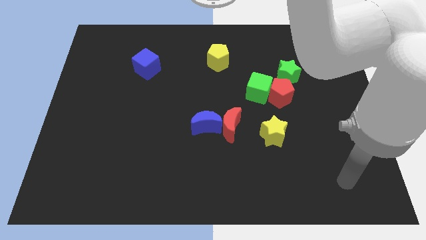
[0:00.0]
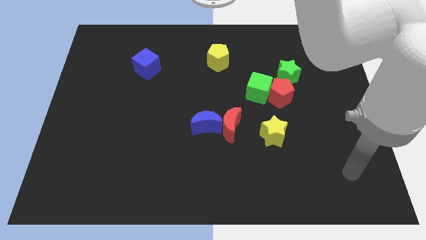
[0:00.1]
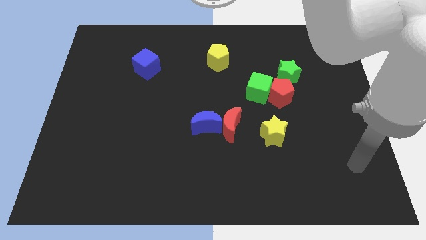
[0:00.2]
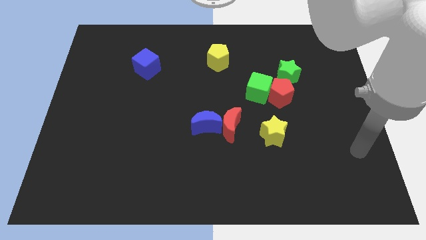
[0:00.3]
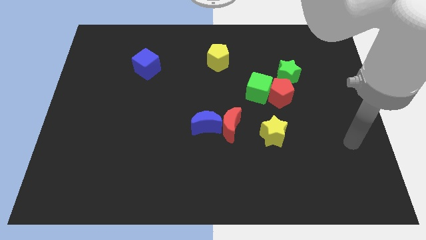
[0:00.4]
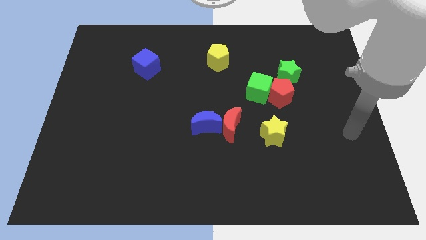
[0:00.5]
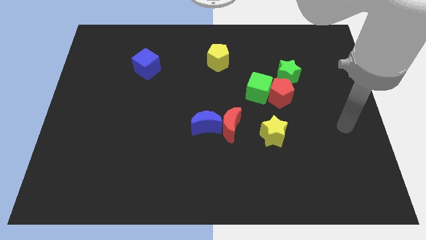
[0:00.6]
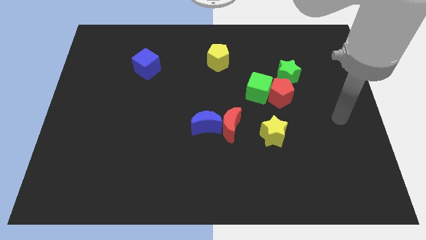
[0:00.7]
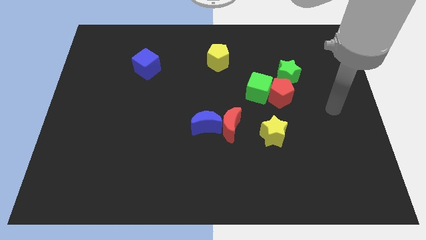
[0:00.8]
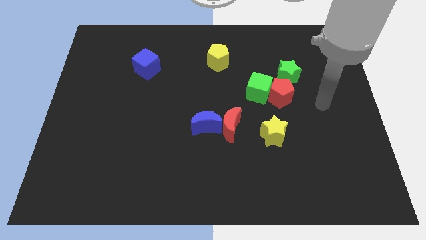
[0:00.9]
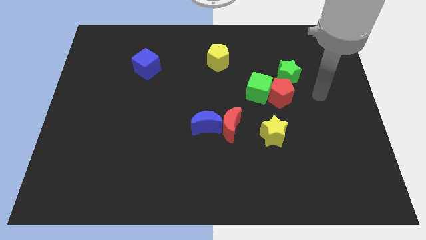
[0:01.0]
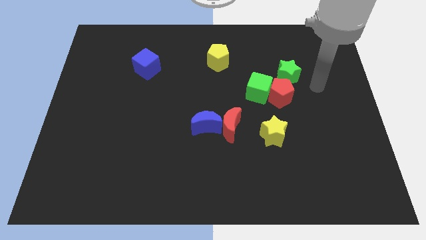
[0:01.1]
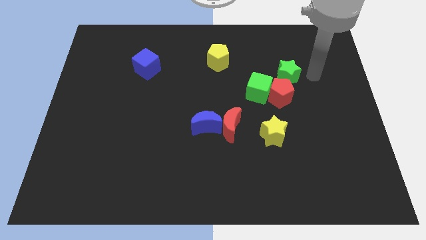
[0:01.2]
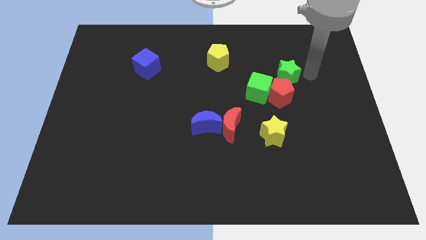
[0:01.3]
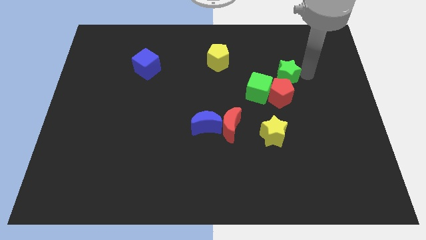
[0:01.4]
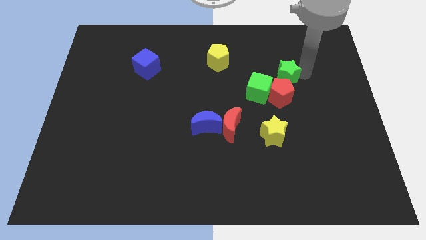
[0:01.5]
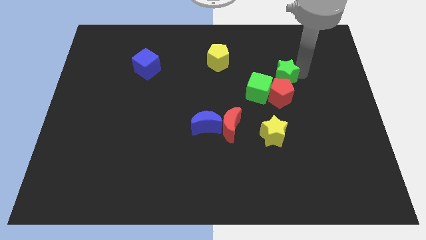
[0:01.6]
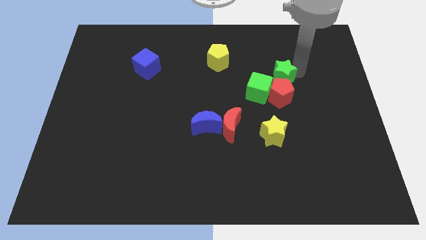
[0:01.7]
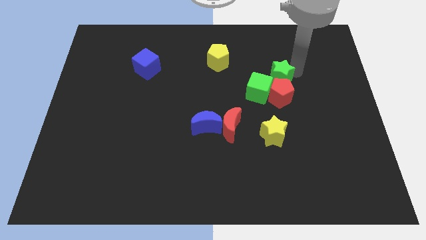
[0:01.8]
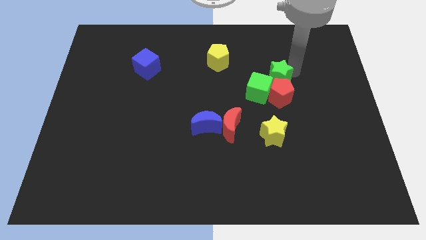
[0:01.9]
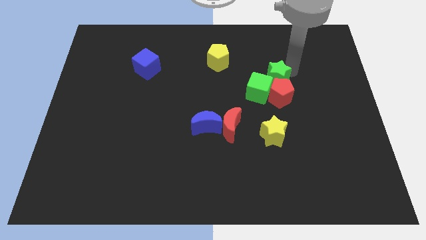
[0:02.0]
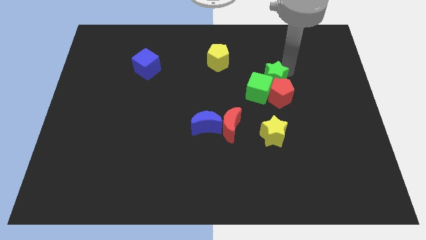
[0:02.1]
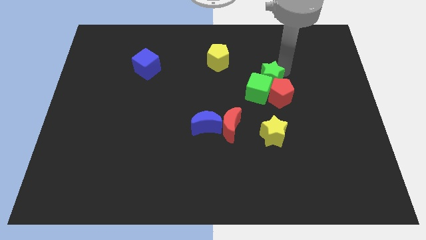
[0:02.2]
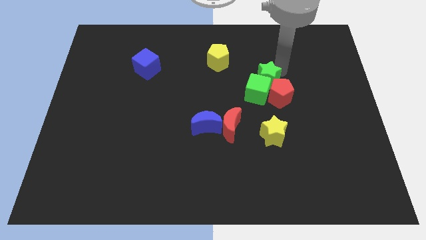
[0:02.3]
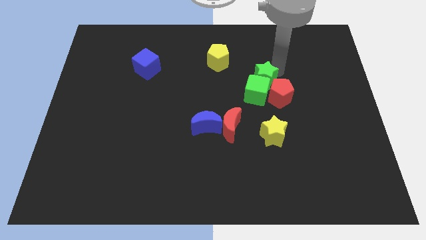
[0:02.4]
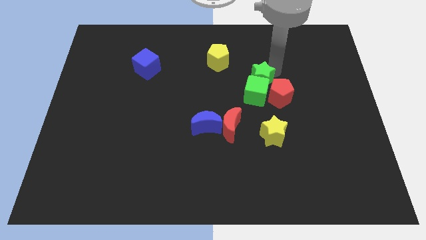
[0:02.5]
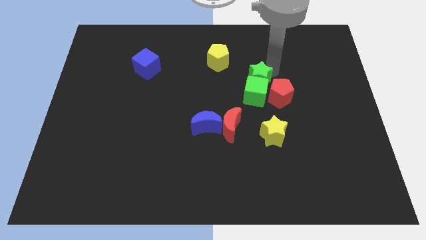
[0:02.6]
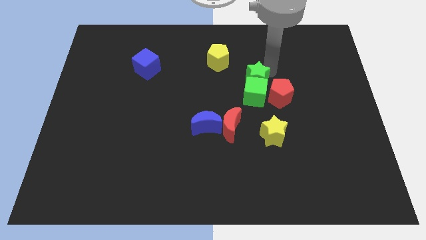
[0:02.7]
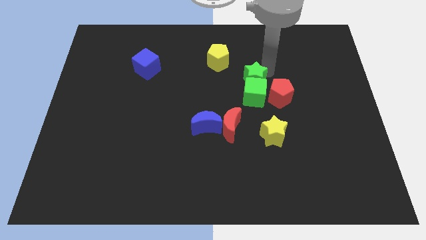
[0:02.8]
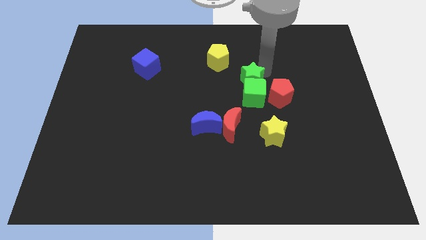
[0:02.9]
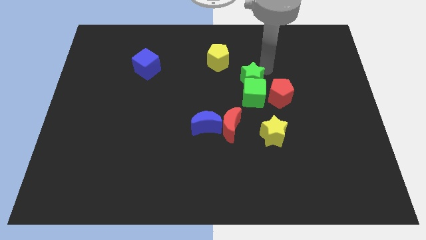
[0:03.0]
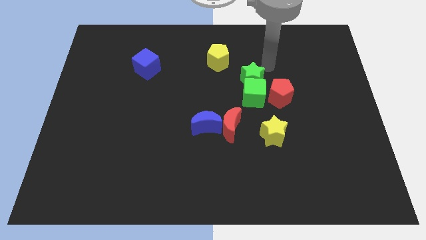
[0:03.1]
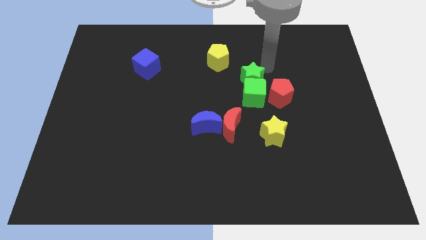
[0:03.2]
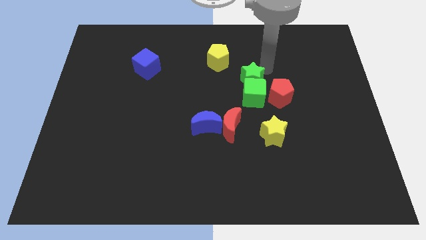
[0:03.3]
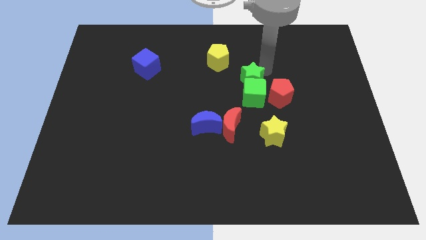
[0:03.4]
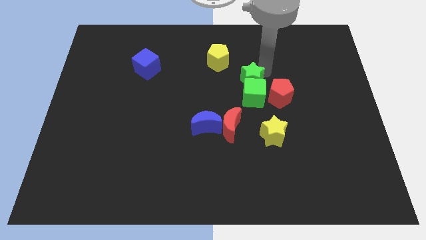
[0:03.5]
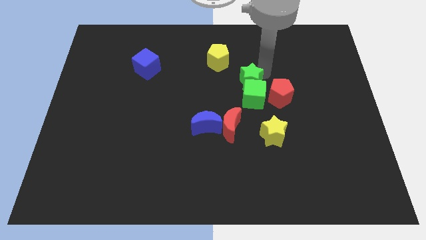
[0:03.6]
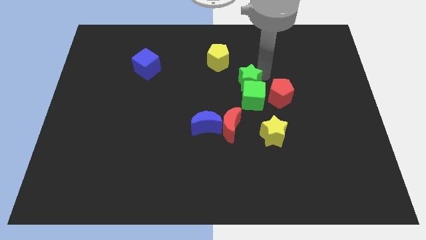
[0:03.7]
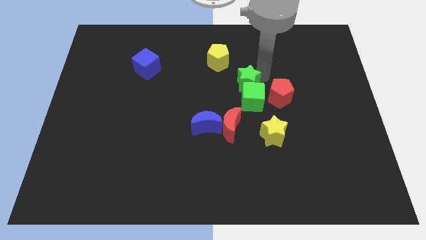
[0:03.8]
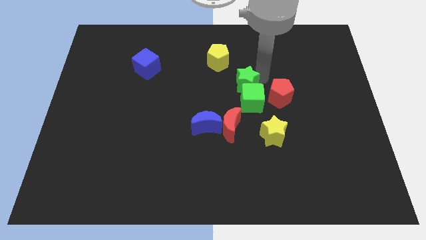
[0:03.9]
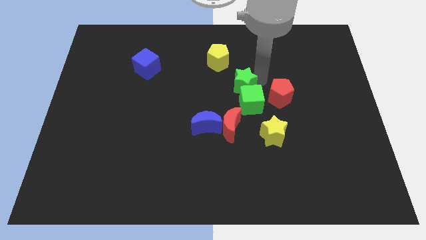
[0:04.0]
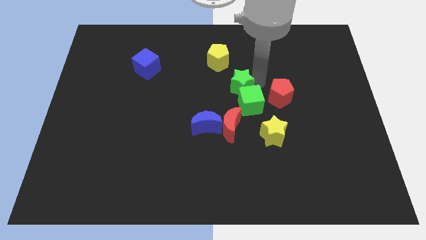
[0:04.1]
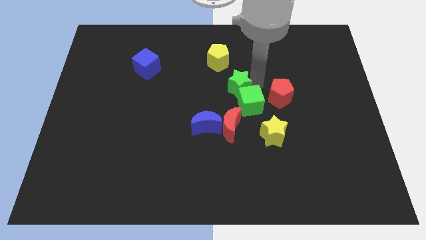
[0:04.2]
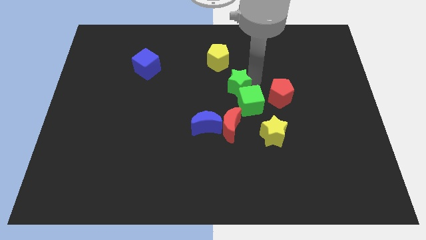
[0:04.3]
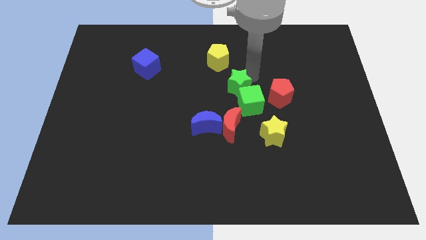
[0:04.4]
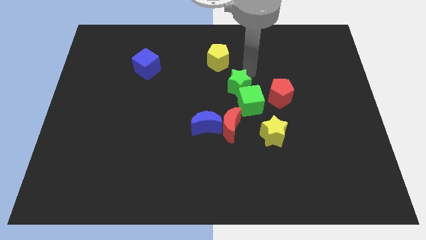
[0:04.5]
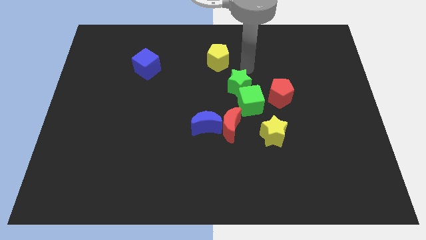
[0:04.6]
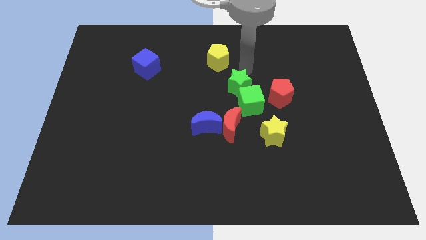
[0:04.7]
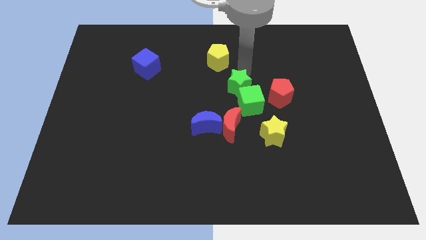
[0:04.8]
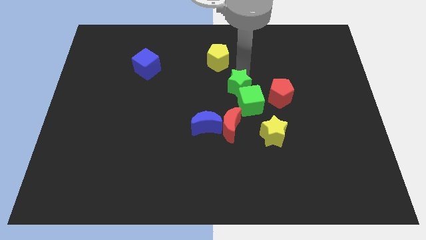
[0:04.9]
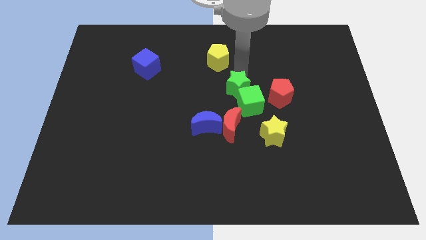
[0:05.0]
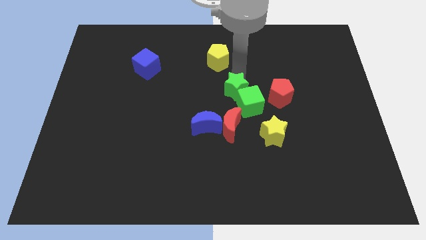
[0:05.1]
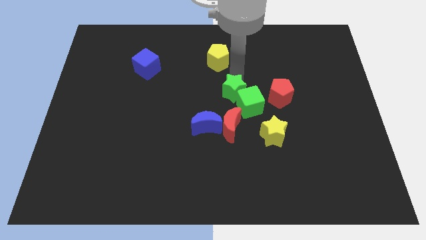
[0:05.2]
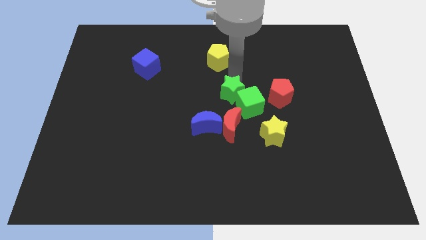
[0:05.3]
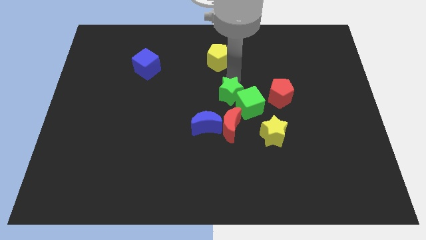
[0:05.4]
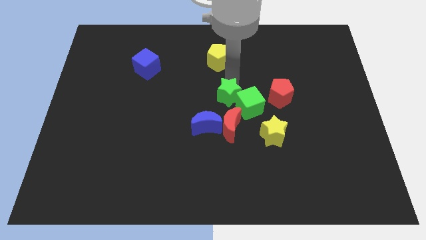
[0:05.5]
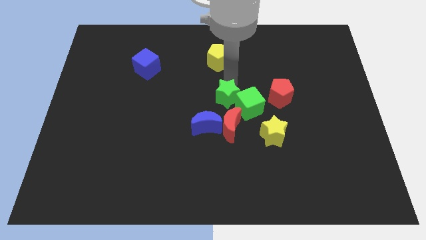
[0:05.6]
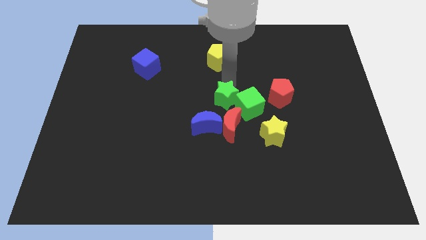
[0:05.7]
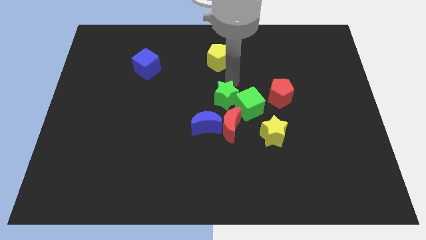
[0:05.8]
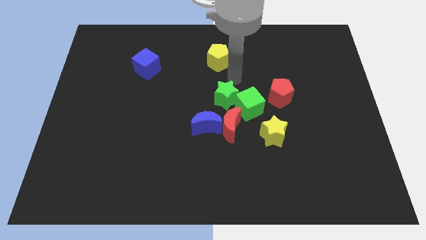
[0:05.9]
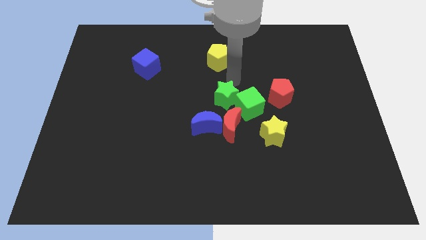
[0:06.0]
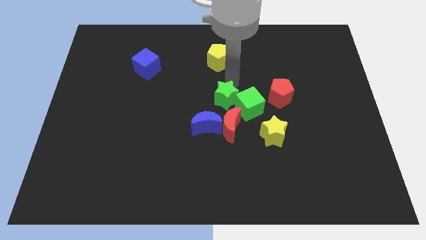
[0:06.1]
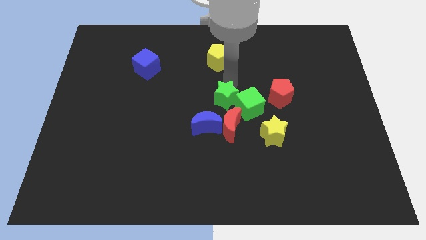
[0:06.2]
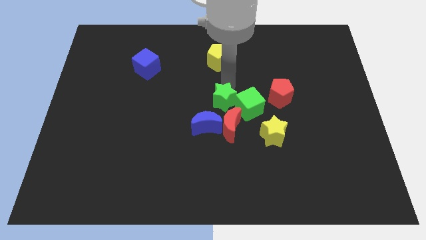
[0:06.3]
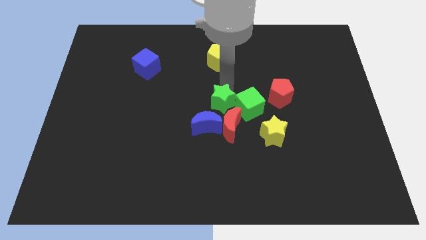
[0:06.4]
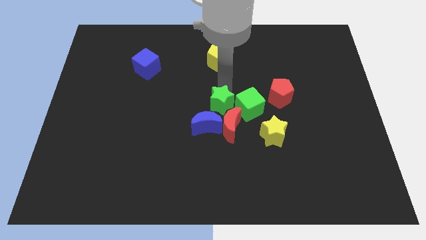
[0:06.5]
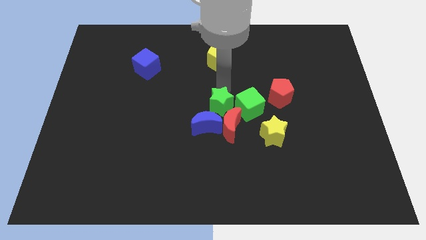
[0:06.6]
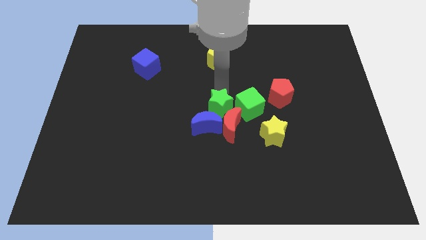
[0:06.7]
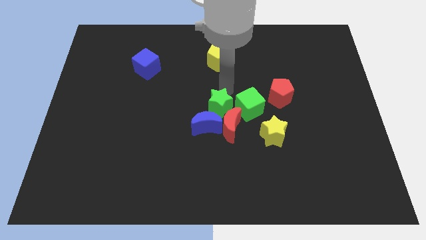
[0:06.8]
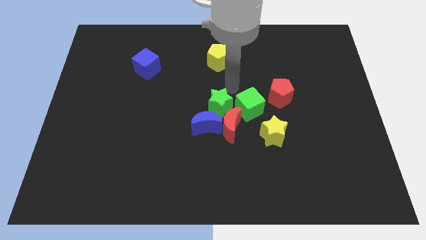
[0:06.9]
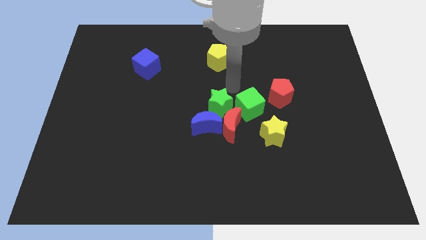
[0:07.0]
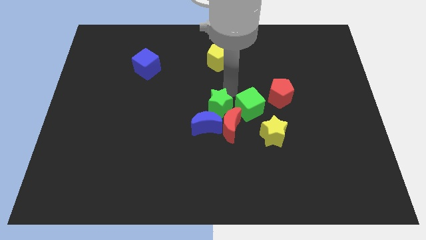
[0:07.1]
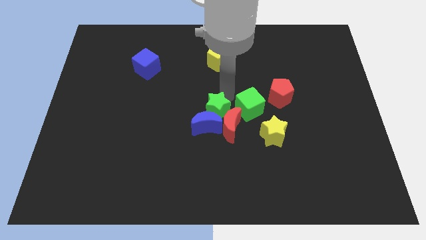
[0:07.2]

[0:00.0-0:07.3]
slide the green star to the blue moon
